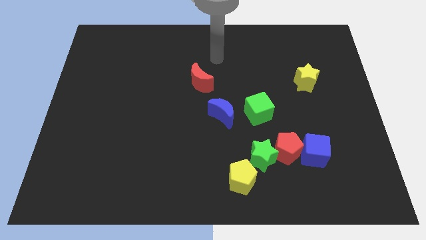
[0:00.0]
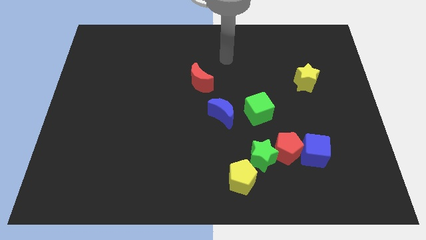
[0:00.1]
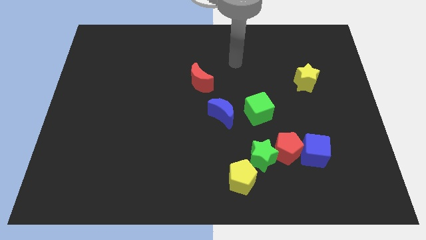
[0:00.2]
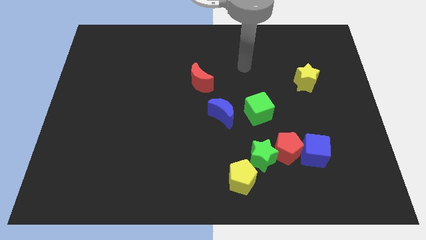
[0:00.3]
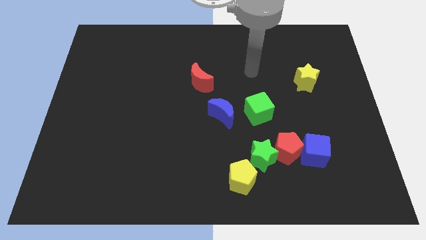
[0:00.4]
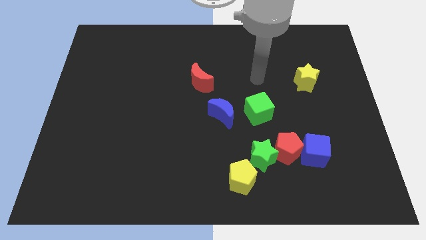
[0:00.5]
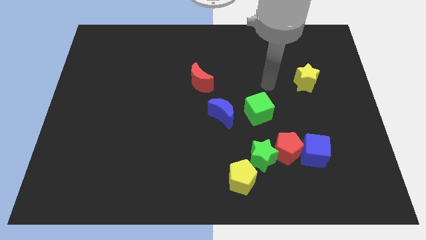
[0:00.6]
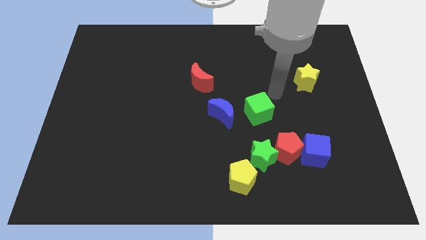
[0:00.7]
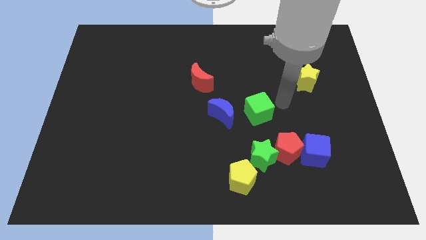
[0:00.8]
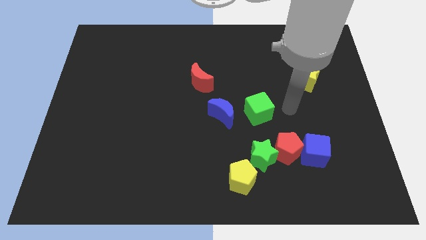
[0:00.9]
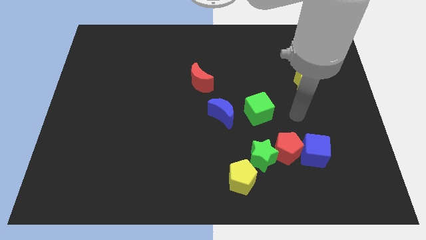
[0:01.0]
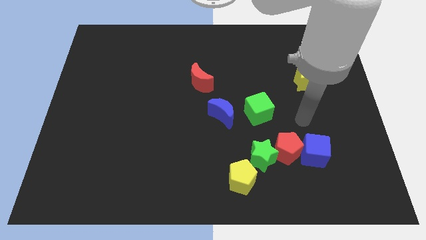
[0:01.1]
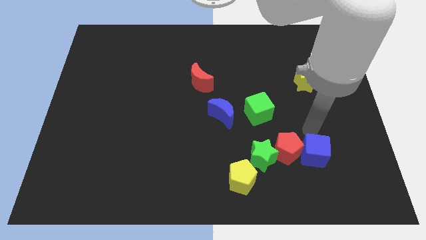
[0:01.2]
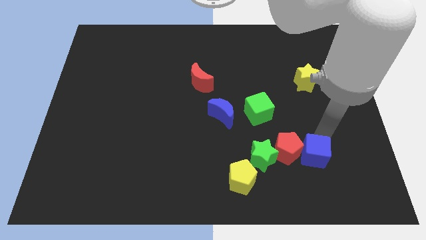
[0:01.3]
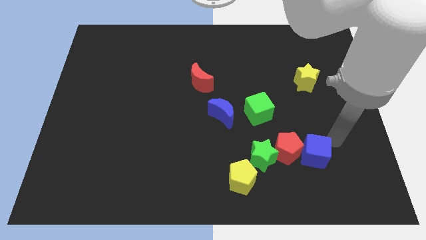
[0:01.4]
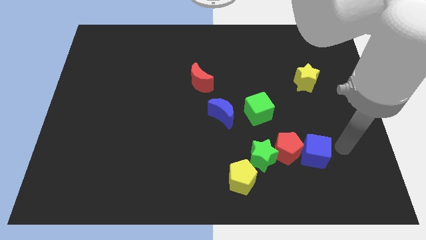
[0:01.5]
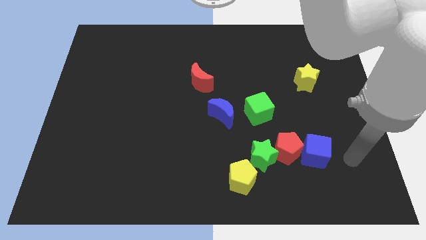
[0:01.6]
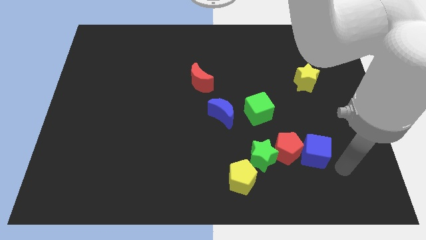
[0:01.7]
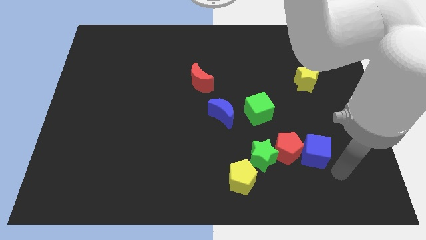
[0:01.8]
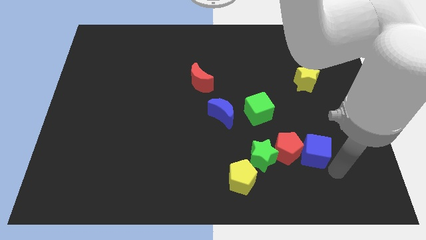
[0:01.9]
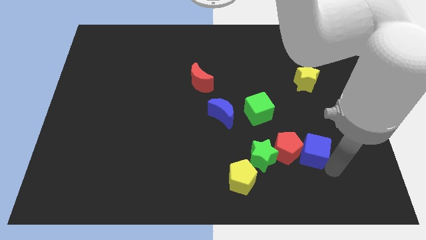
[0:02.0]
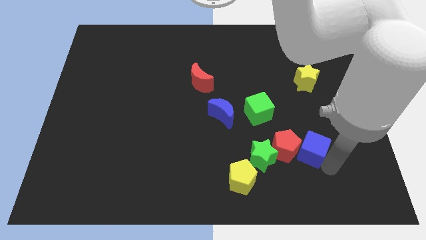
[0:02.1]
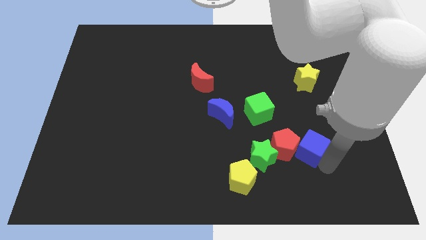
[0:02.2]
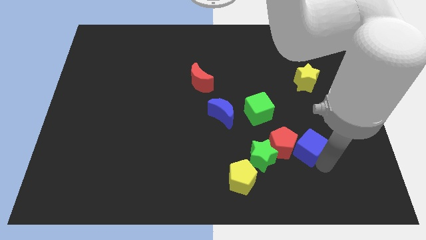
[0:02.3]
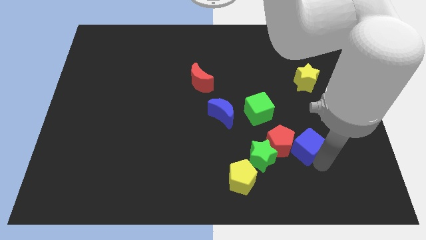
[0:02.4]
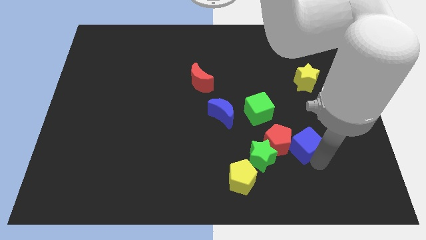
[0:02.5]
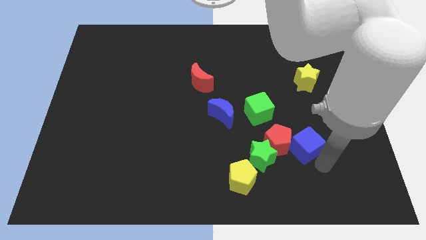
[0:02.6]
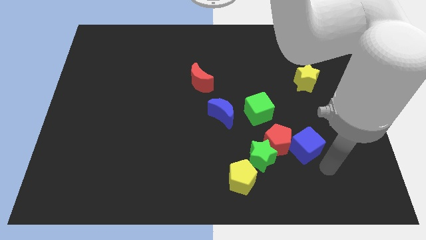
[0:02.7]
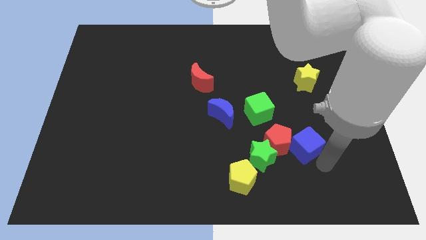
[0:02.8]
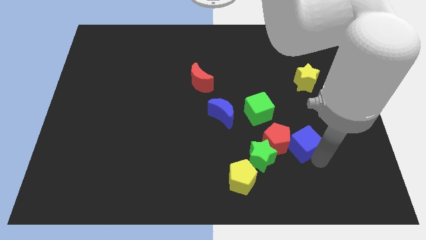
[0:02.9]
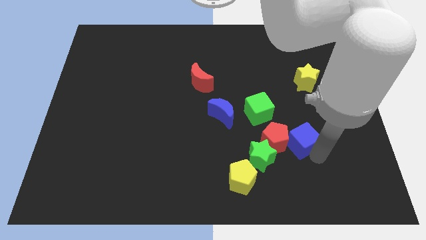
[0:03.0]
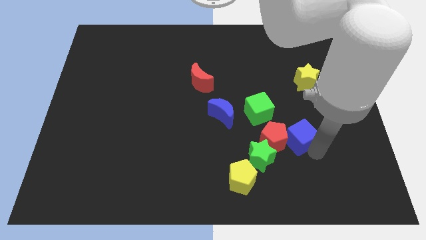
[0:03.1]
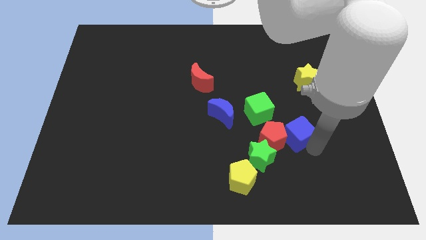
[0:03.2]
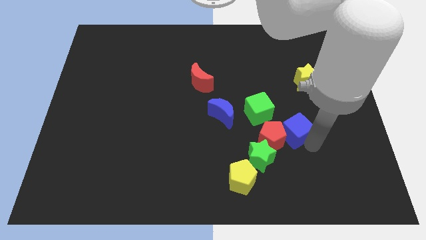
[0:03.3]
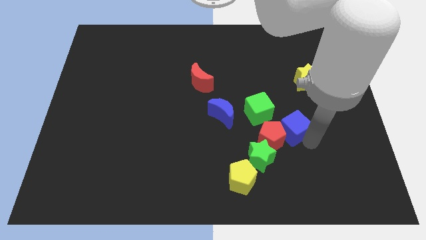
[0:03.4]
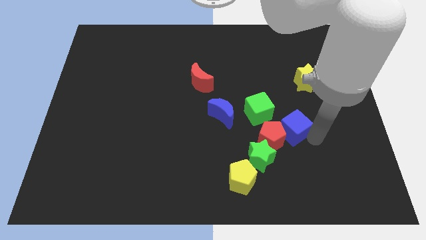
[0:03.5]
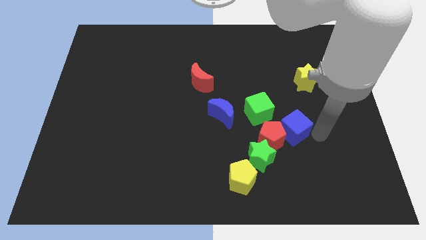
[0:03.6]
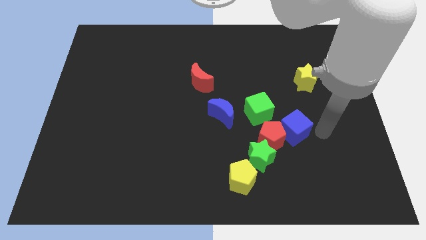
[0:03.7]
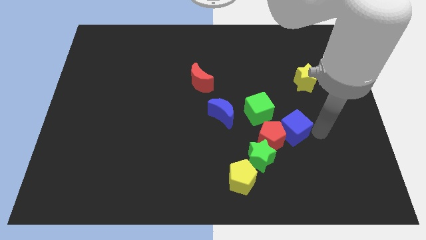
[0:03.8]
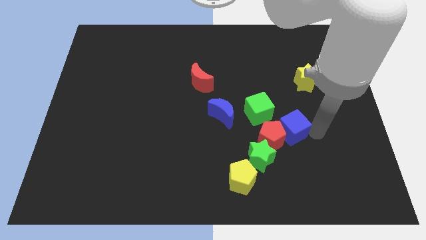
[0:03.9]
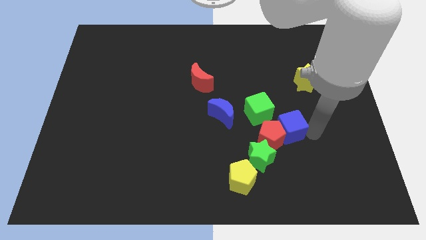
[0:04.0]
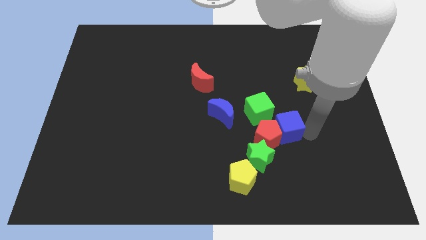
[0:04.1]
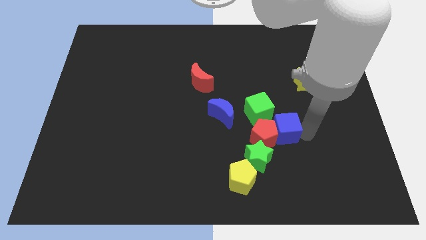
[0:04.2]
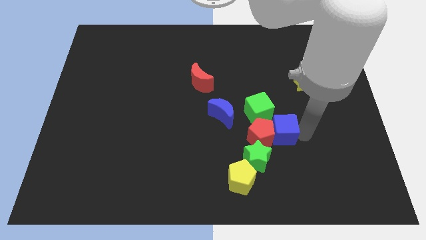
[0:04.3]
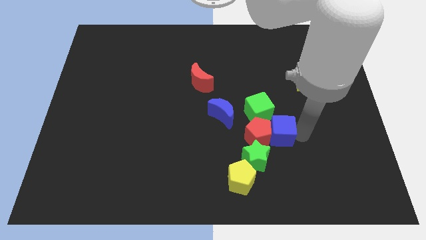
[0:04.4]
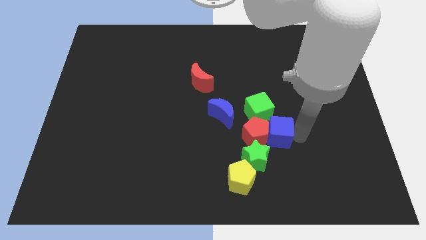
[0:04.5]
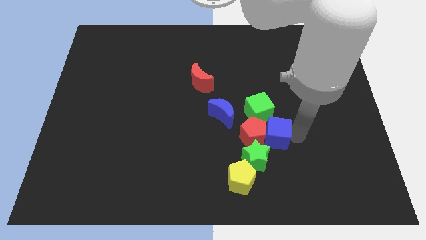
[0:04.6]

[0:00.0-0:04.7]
push the blue cube to the left a little bit

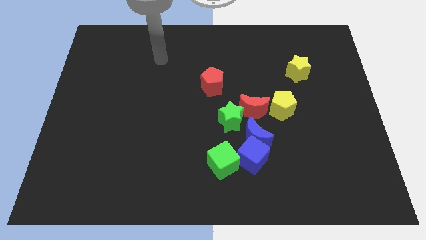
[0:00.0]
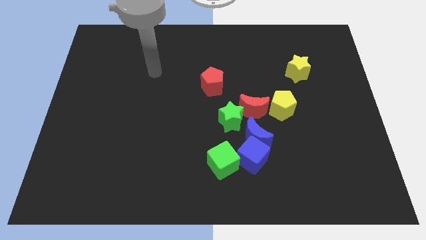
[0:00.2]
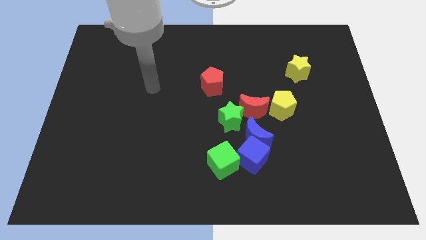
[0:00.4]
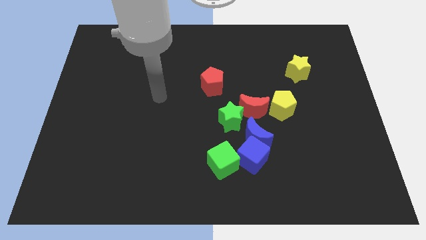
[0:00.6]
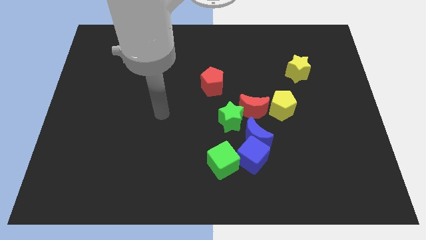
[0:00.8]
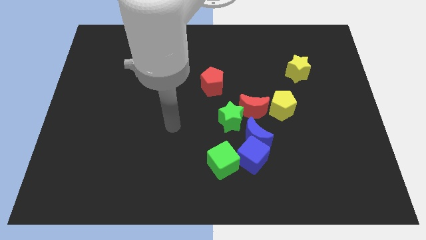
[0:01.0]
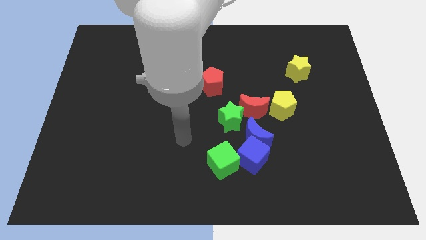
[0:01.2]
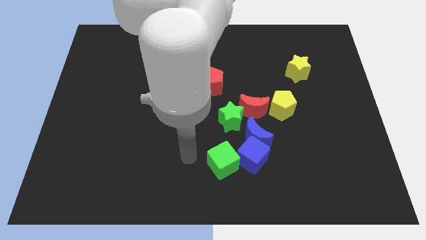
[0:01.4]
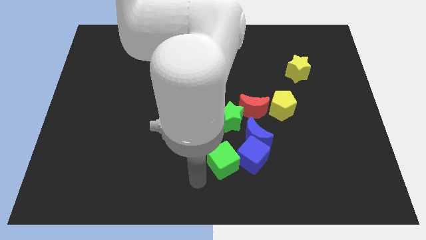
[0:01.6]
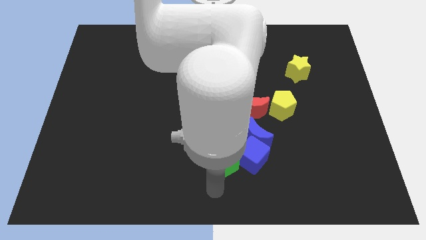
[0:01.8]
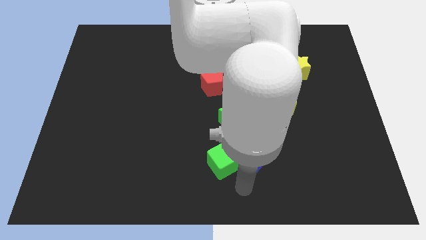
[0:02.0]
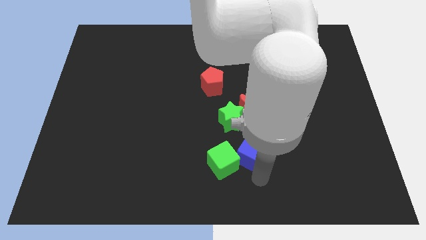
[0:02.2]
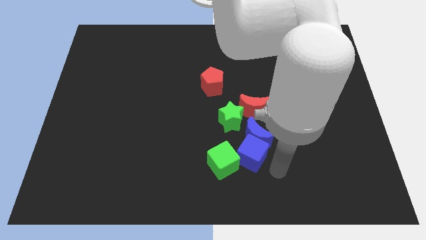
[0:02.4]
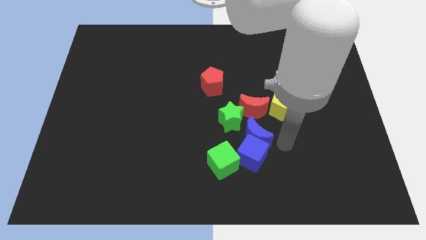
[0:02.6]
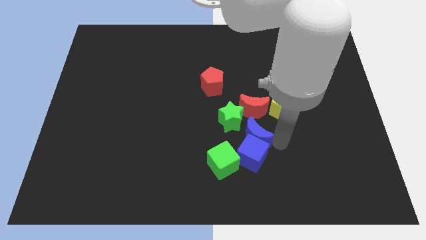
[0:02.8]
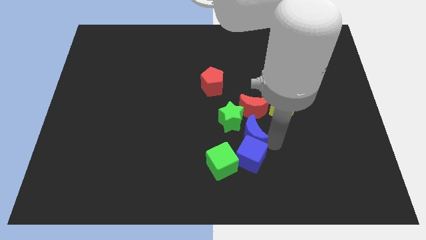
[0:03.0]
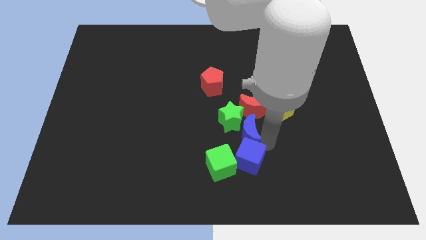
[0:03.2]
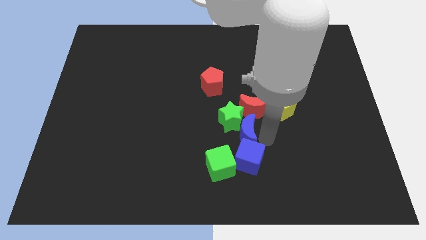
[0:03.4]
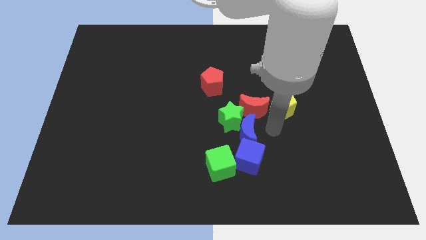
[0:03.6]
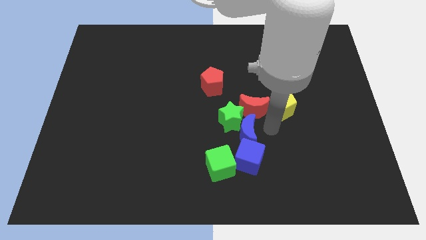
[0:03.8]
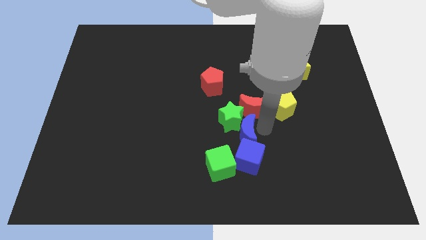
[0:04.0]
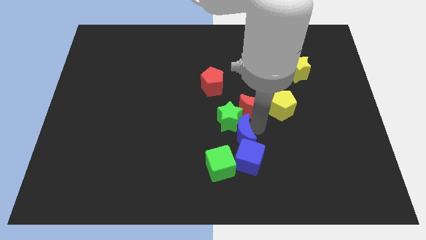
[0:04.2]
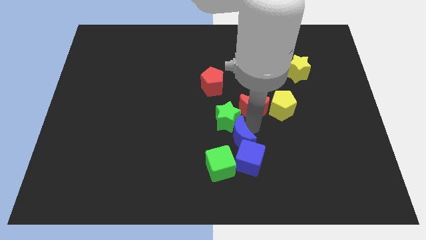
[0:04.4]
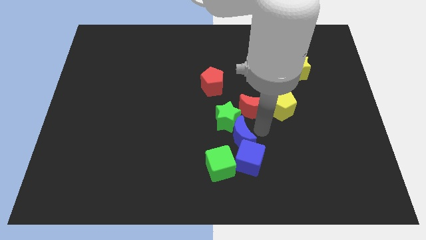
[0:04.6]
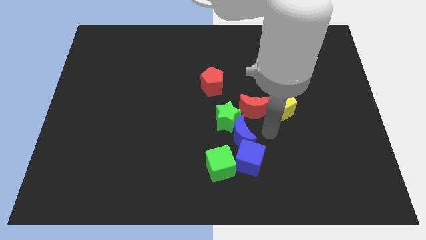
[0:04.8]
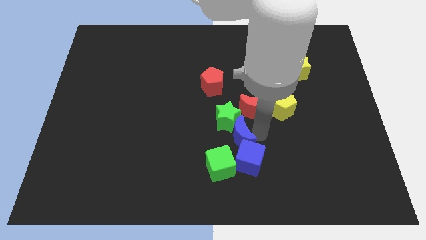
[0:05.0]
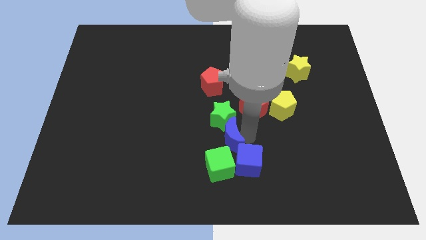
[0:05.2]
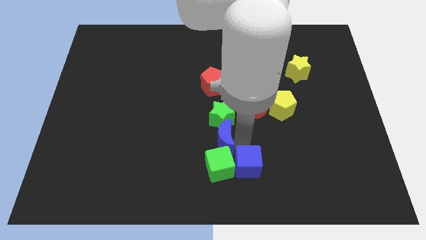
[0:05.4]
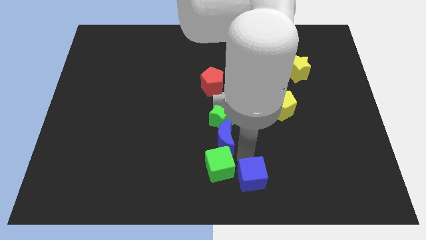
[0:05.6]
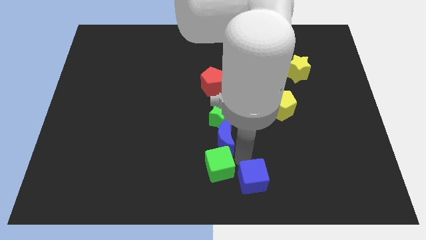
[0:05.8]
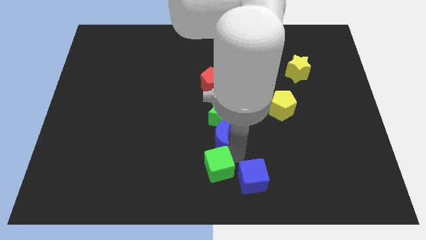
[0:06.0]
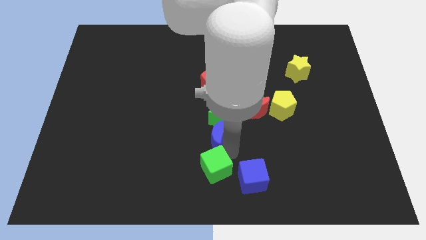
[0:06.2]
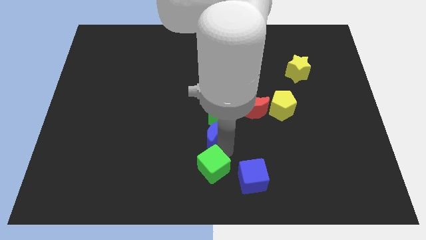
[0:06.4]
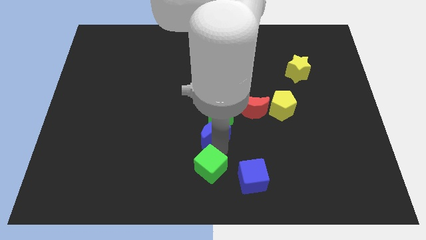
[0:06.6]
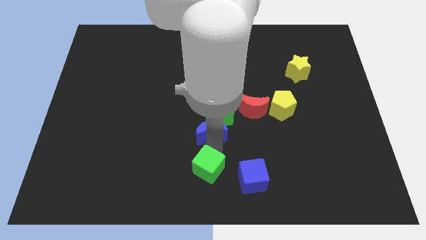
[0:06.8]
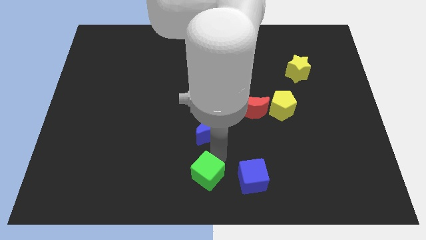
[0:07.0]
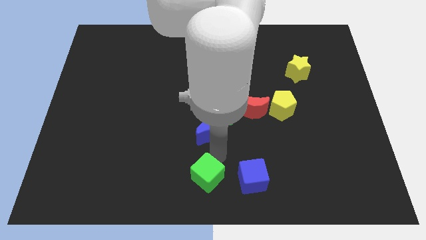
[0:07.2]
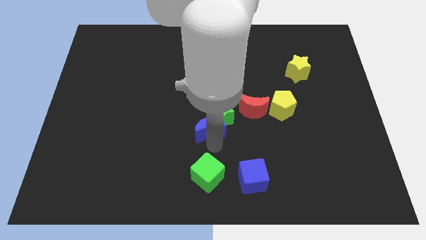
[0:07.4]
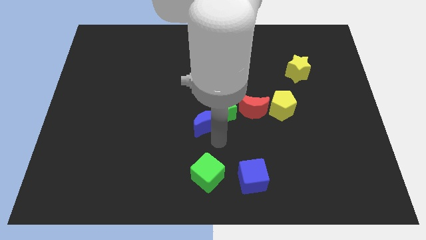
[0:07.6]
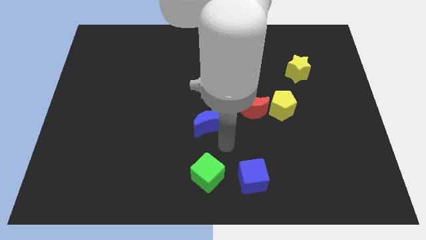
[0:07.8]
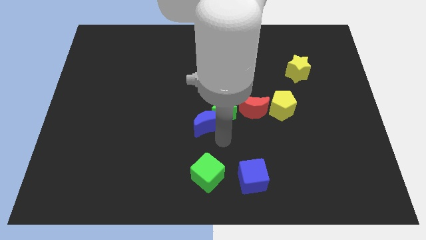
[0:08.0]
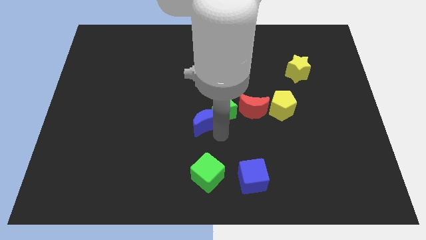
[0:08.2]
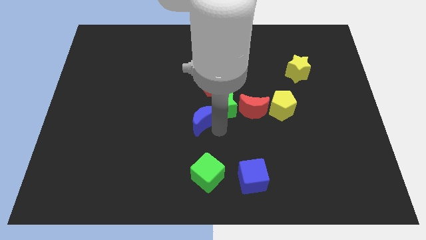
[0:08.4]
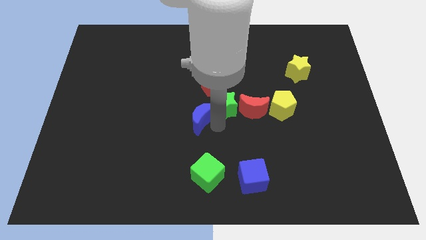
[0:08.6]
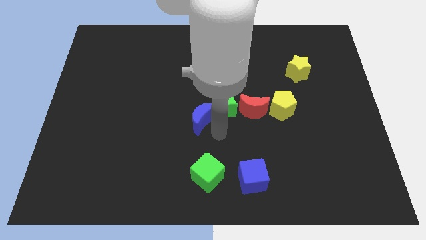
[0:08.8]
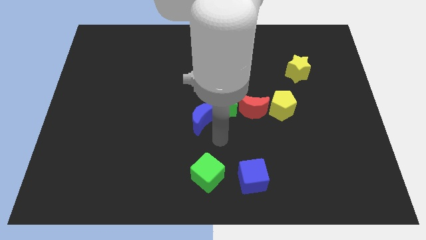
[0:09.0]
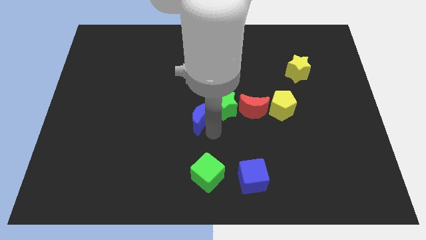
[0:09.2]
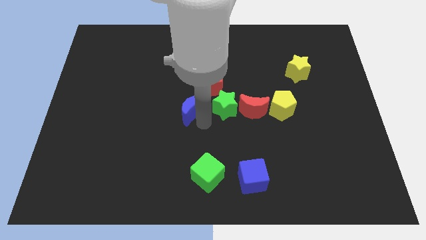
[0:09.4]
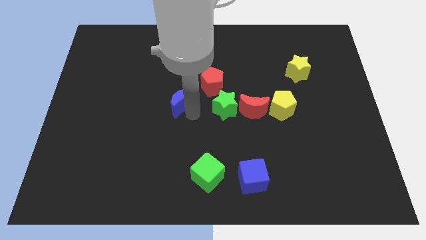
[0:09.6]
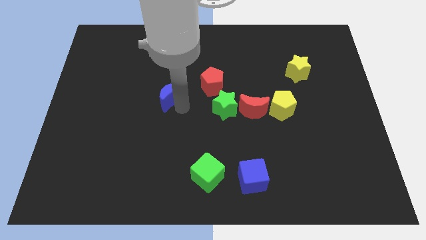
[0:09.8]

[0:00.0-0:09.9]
slide the blue moon upwards and to the left
